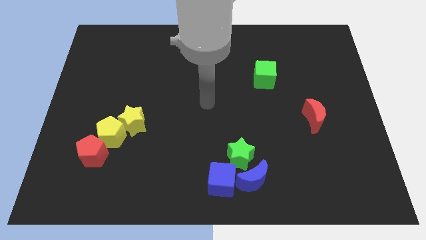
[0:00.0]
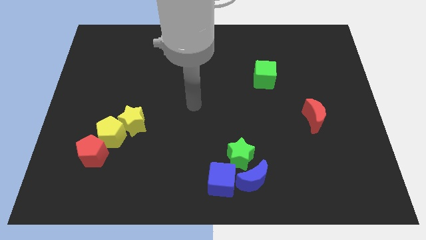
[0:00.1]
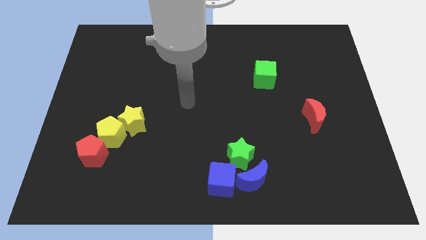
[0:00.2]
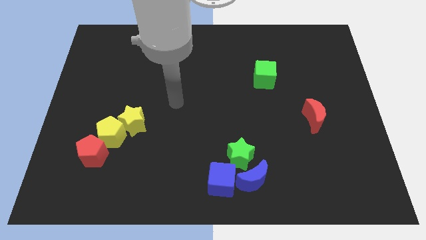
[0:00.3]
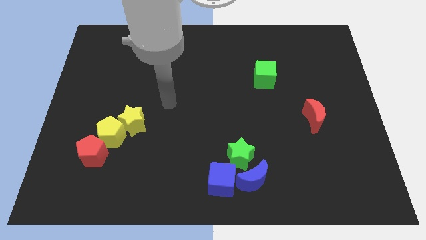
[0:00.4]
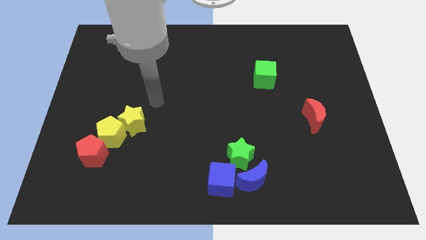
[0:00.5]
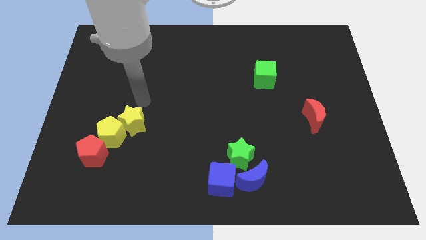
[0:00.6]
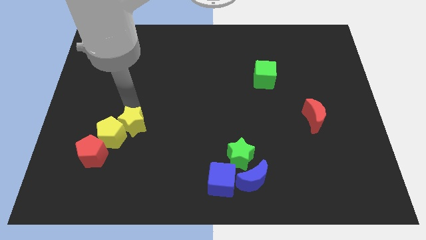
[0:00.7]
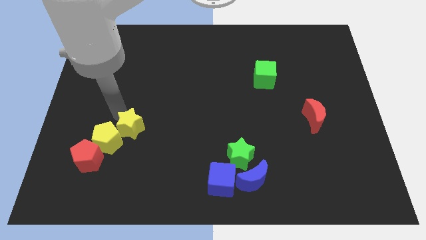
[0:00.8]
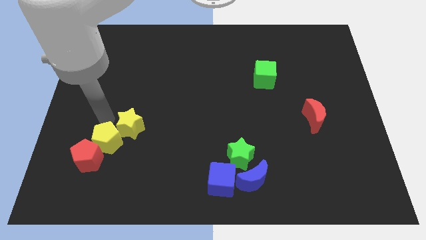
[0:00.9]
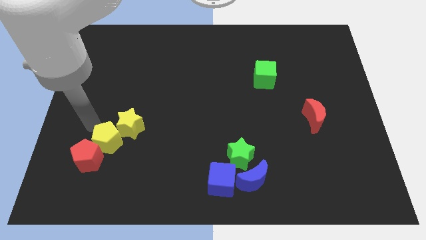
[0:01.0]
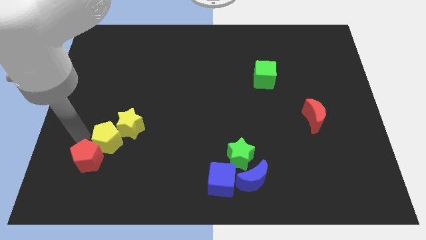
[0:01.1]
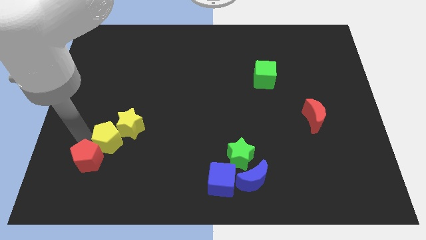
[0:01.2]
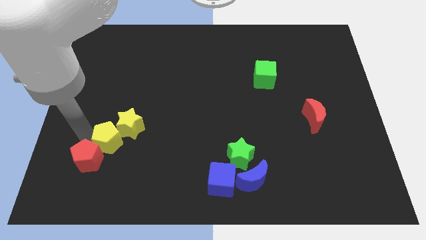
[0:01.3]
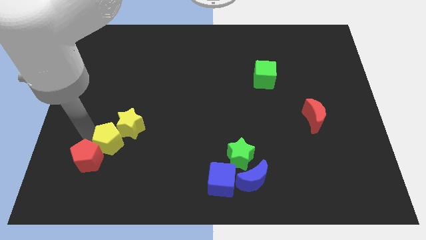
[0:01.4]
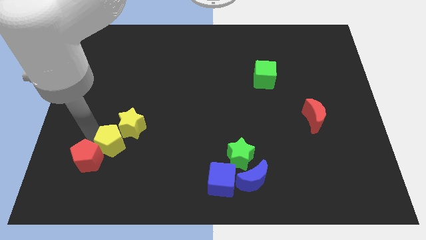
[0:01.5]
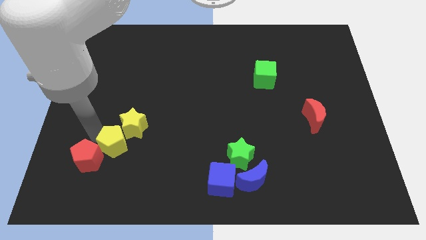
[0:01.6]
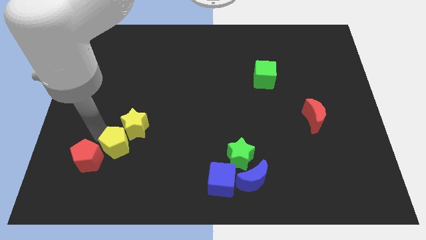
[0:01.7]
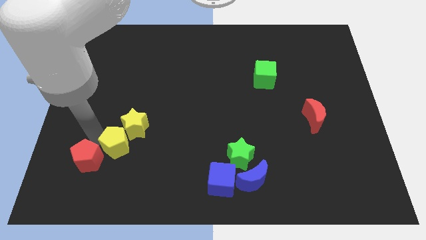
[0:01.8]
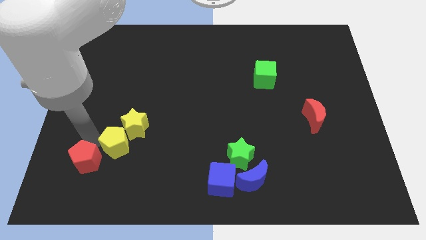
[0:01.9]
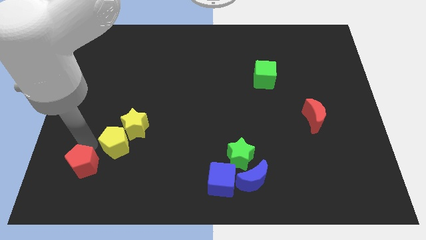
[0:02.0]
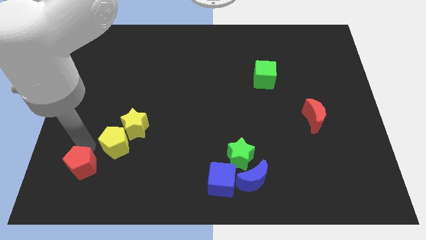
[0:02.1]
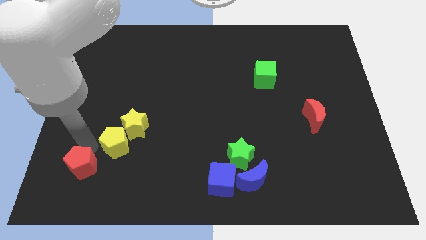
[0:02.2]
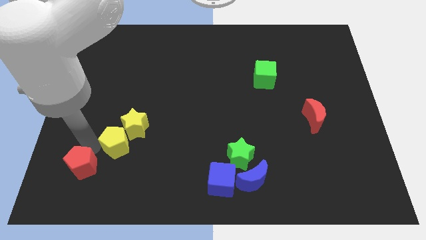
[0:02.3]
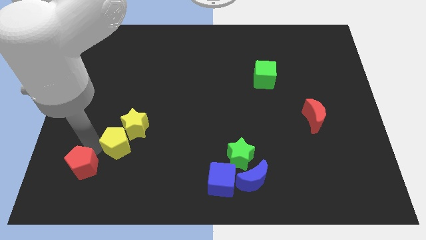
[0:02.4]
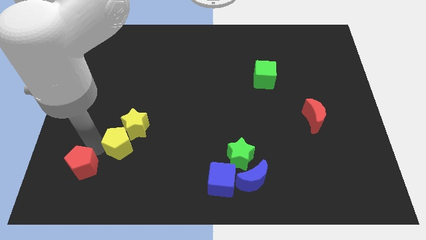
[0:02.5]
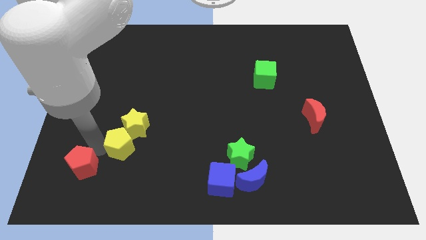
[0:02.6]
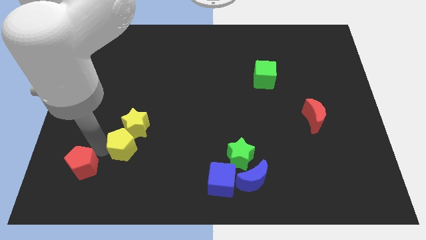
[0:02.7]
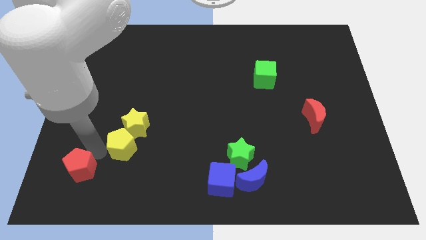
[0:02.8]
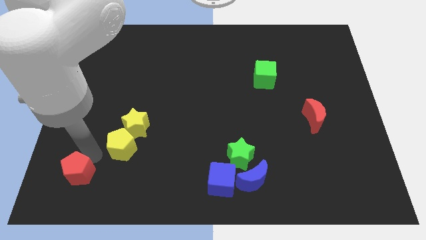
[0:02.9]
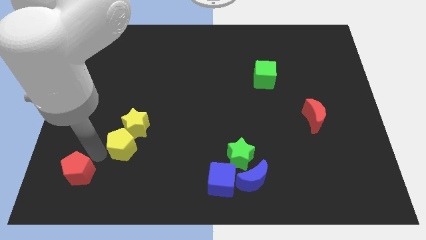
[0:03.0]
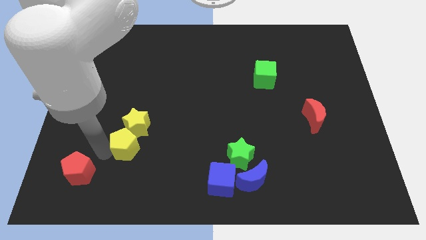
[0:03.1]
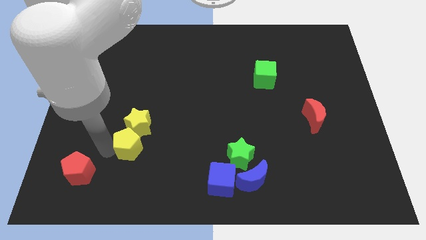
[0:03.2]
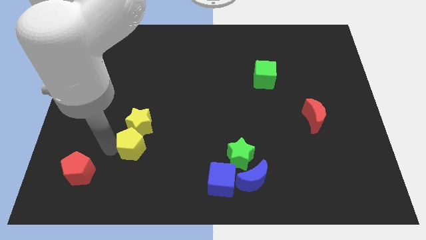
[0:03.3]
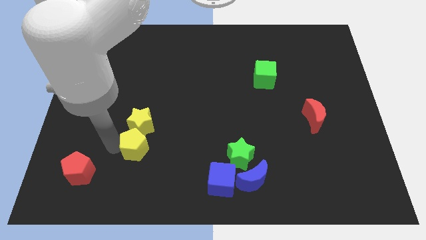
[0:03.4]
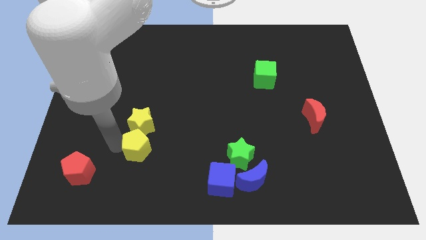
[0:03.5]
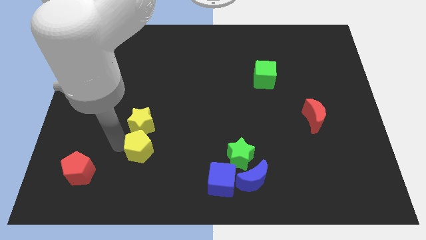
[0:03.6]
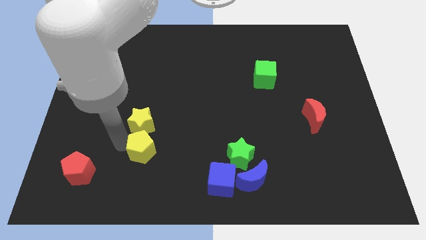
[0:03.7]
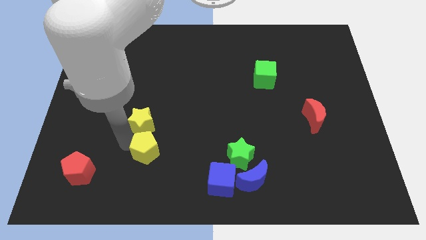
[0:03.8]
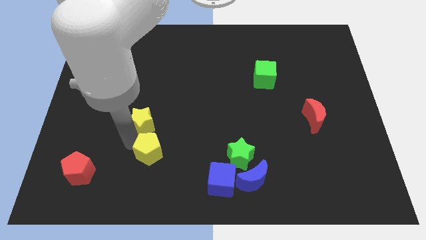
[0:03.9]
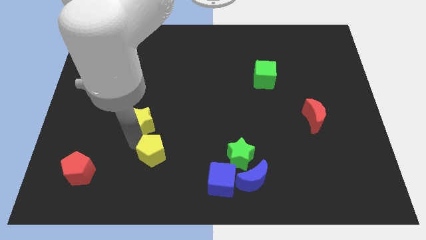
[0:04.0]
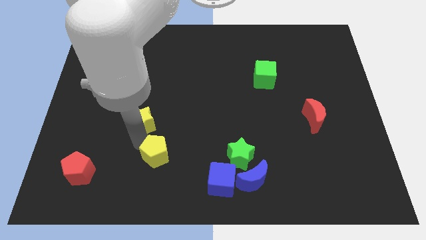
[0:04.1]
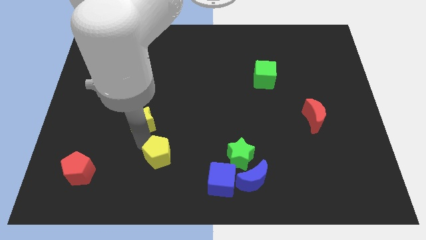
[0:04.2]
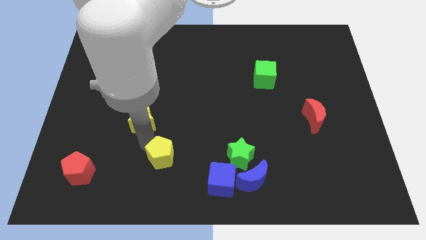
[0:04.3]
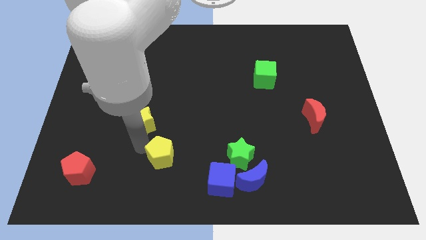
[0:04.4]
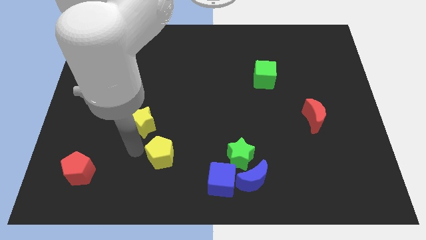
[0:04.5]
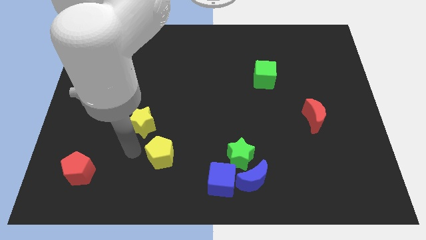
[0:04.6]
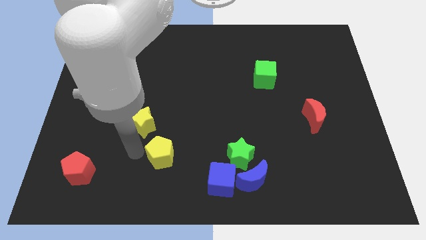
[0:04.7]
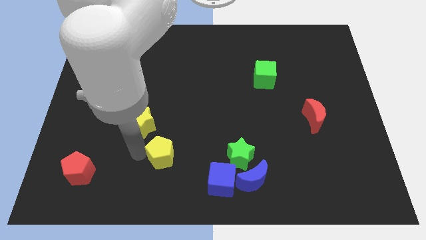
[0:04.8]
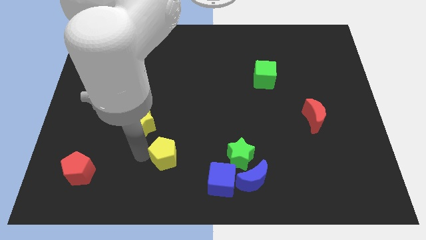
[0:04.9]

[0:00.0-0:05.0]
move the yellow pentagon to the left side of the green star

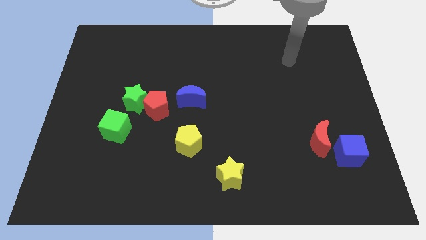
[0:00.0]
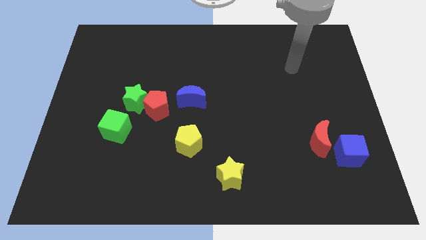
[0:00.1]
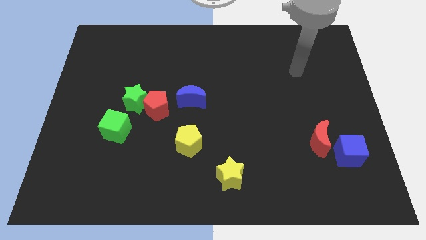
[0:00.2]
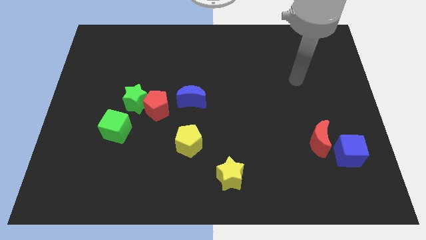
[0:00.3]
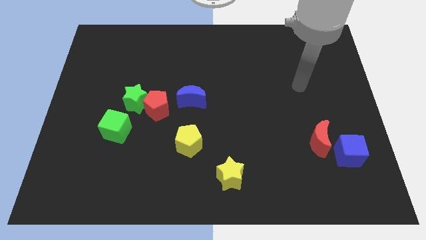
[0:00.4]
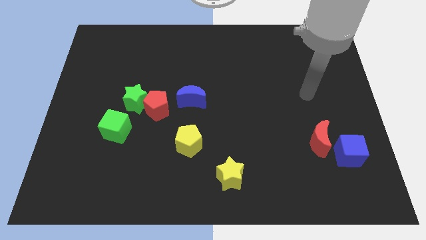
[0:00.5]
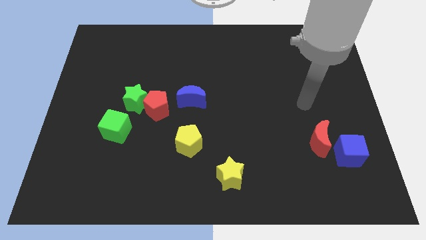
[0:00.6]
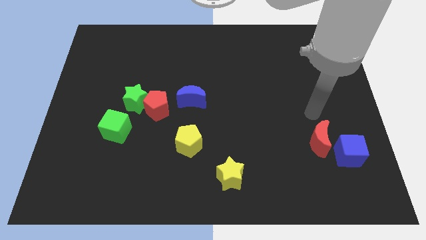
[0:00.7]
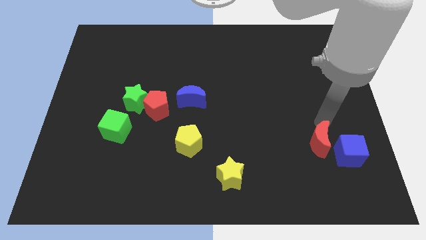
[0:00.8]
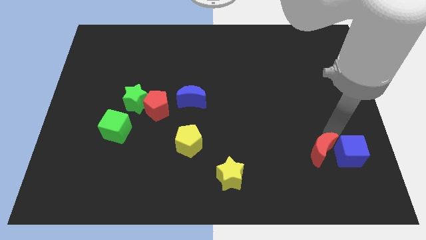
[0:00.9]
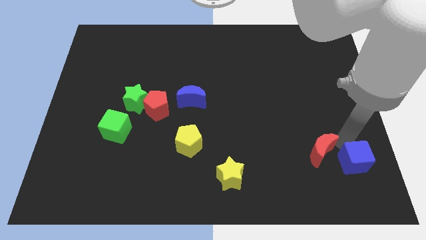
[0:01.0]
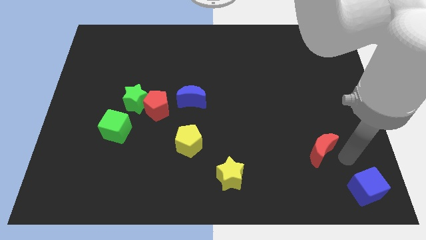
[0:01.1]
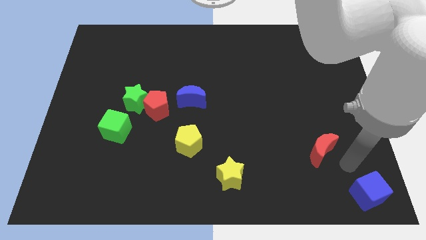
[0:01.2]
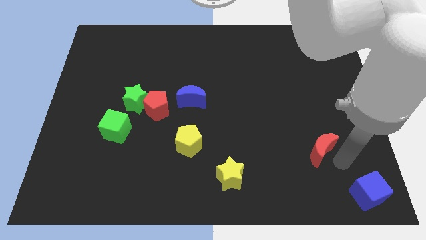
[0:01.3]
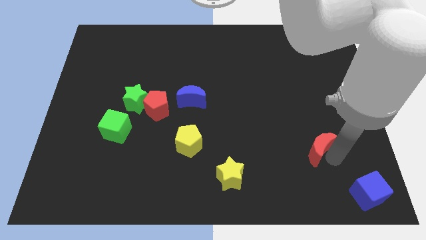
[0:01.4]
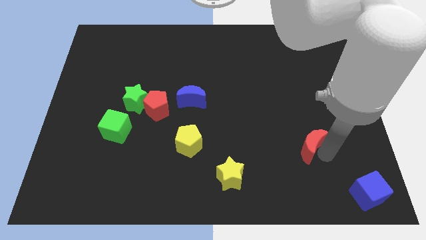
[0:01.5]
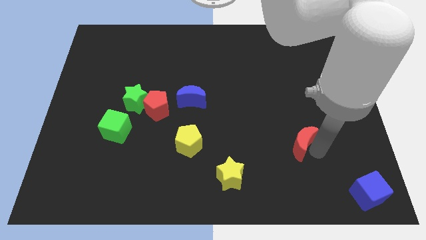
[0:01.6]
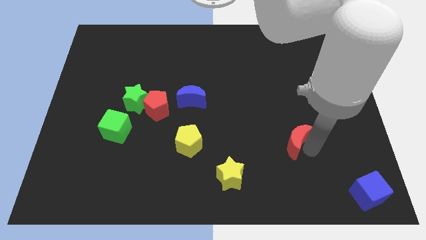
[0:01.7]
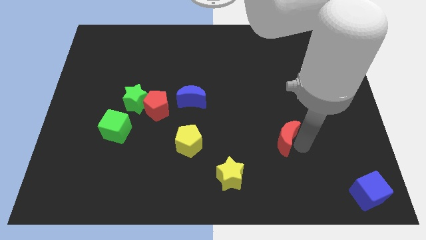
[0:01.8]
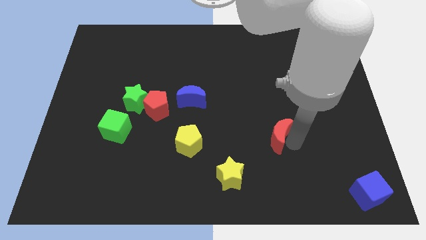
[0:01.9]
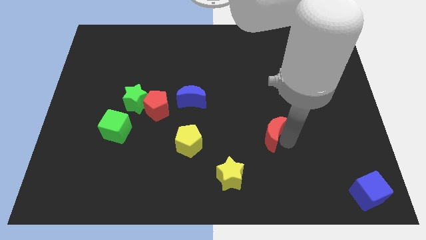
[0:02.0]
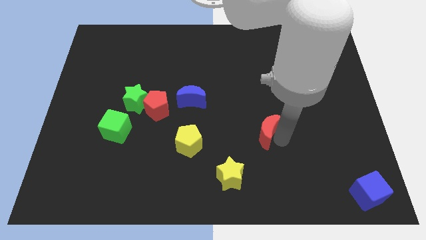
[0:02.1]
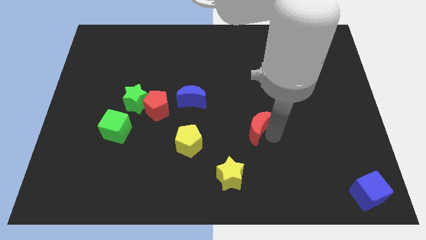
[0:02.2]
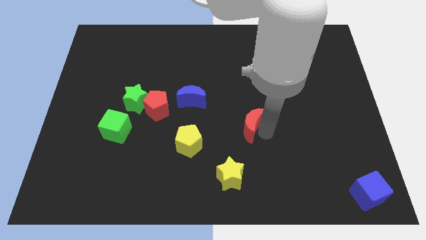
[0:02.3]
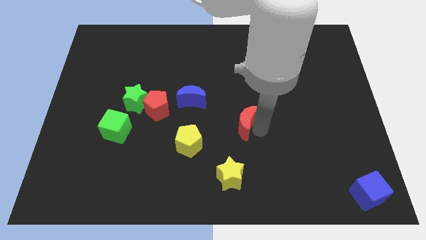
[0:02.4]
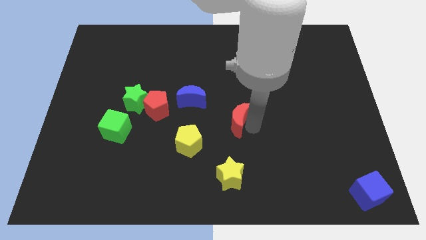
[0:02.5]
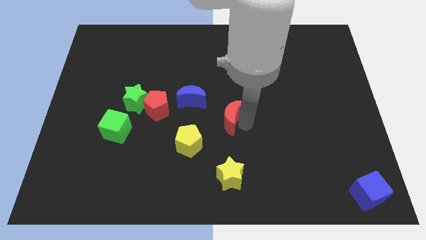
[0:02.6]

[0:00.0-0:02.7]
move the red moon to the bottom right of the blue moon

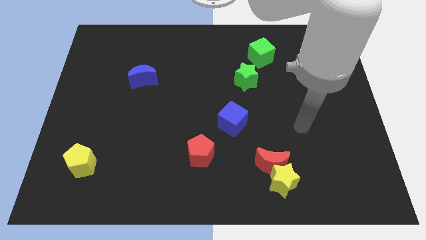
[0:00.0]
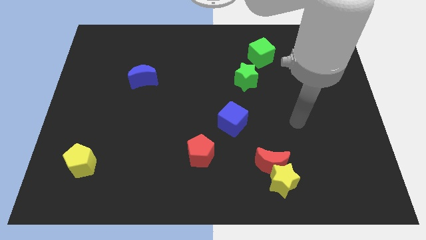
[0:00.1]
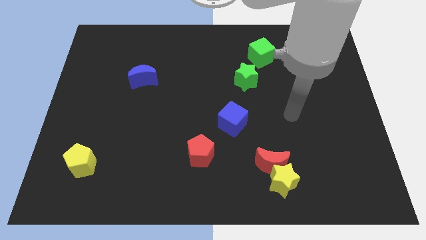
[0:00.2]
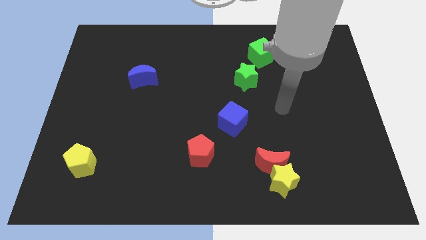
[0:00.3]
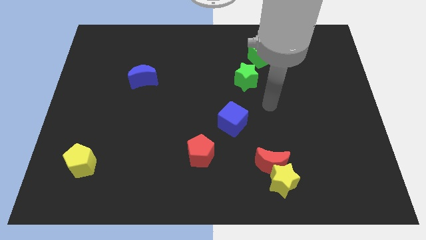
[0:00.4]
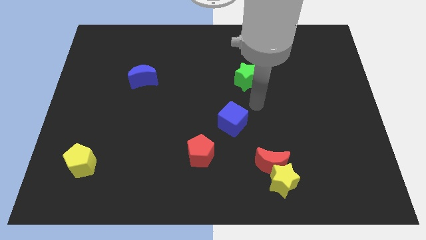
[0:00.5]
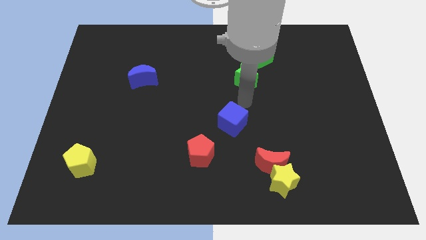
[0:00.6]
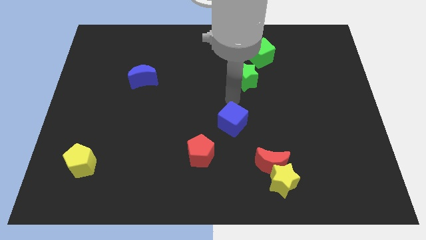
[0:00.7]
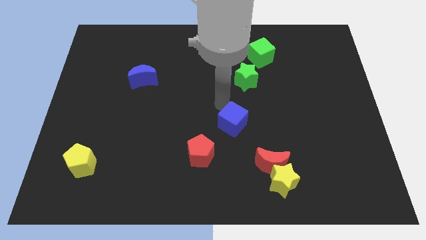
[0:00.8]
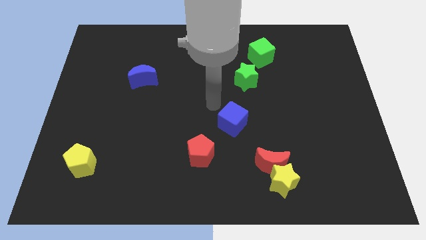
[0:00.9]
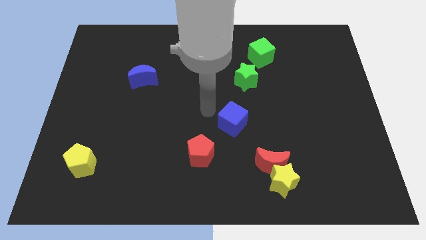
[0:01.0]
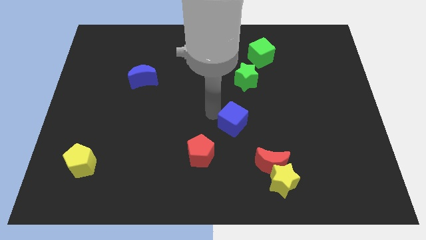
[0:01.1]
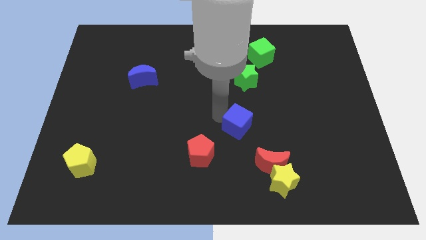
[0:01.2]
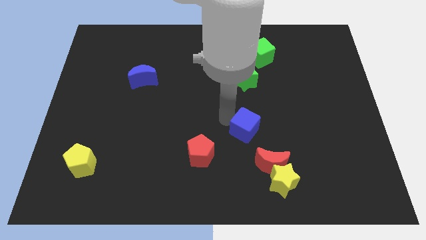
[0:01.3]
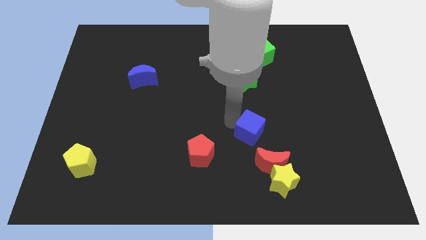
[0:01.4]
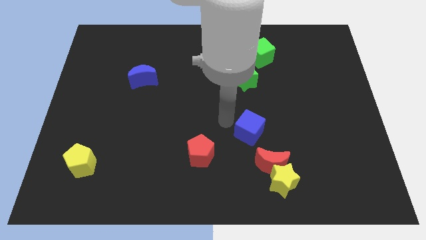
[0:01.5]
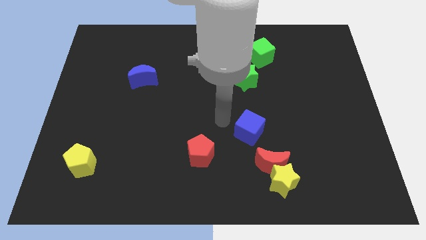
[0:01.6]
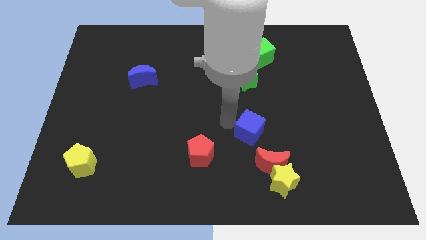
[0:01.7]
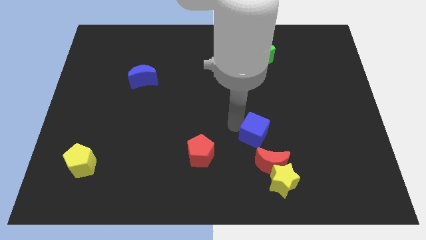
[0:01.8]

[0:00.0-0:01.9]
slide the blue cube to the top of the yellow star
